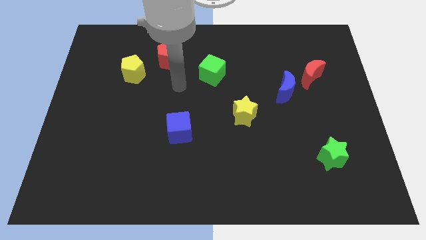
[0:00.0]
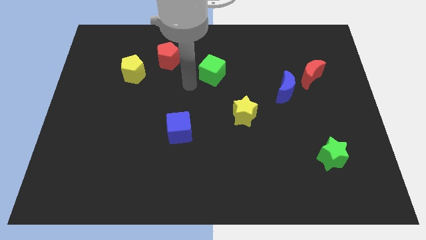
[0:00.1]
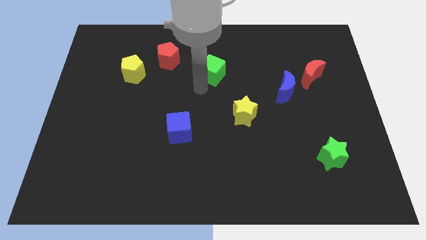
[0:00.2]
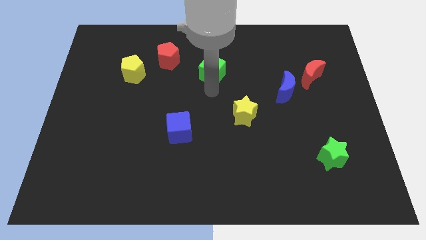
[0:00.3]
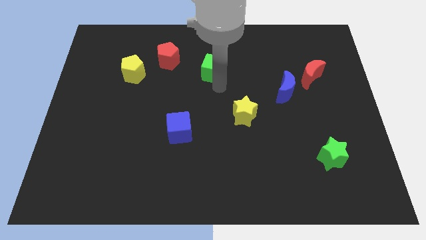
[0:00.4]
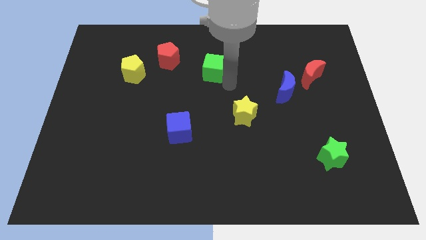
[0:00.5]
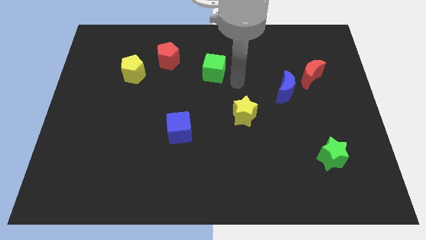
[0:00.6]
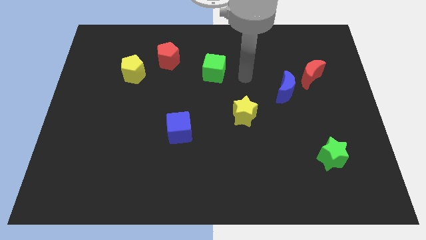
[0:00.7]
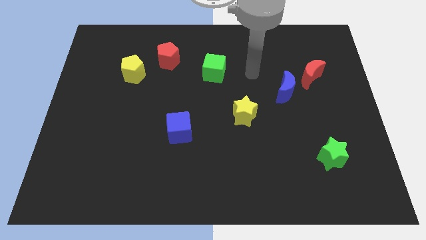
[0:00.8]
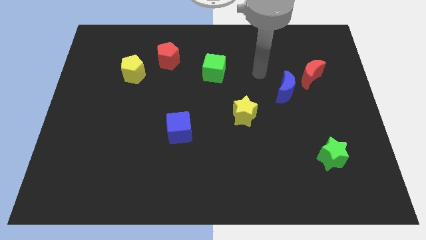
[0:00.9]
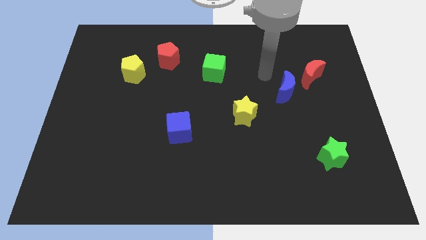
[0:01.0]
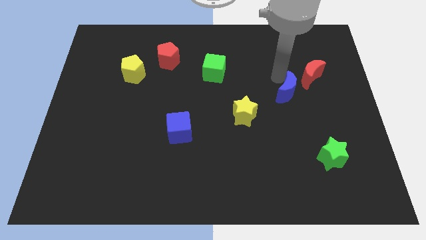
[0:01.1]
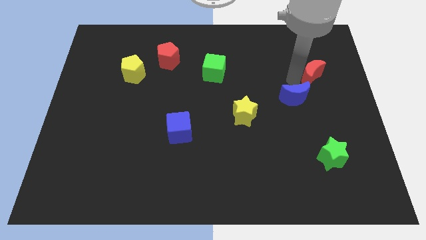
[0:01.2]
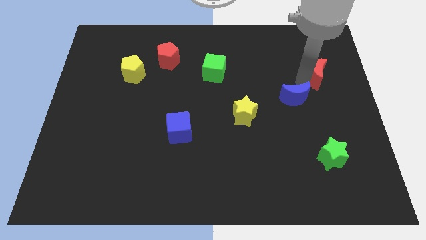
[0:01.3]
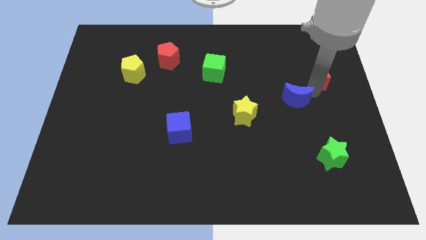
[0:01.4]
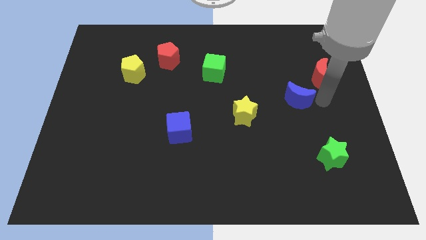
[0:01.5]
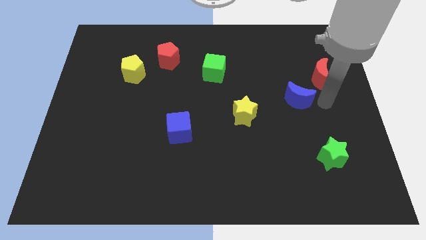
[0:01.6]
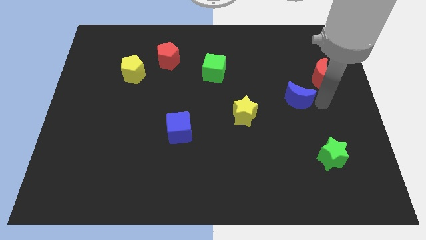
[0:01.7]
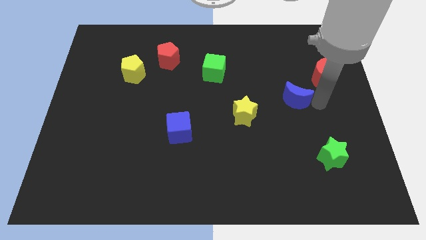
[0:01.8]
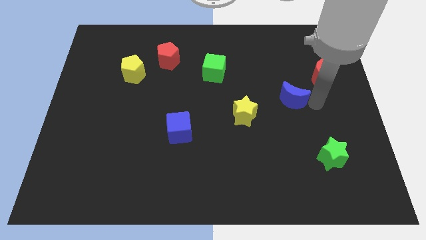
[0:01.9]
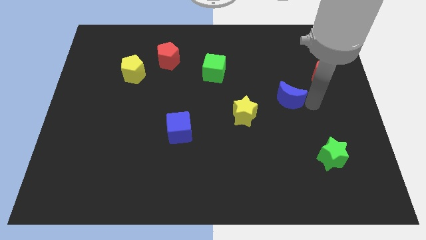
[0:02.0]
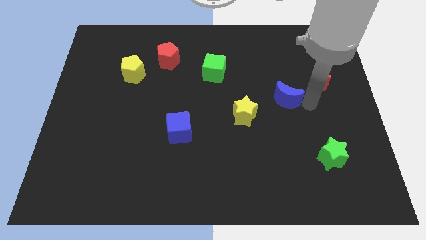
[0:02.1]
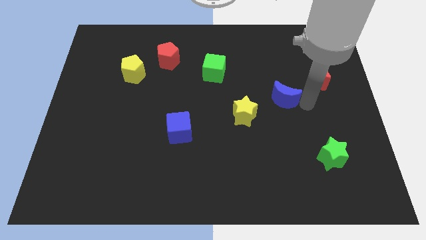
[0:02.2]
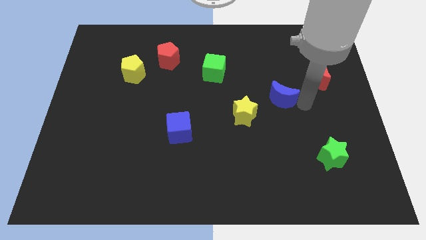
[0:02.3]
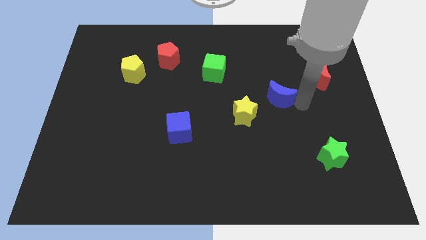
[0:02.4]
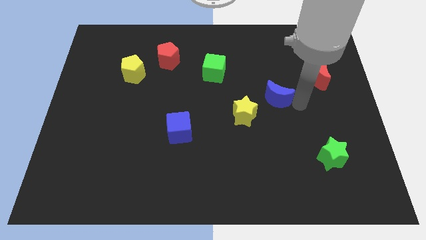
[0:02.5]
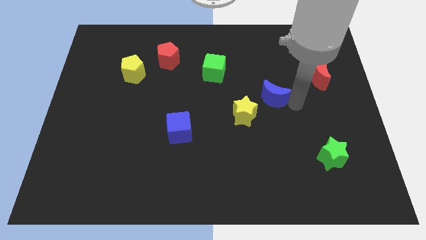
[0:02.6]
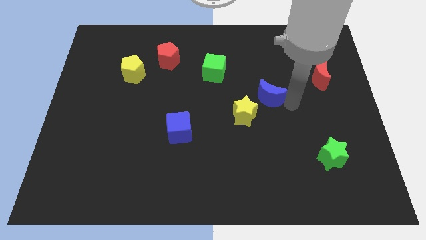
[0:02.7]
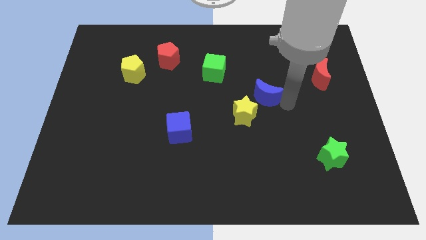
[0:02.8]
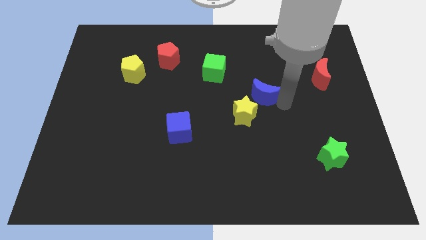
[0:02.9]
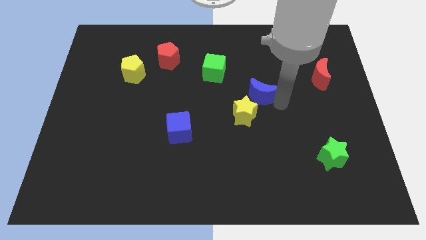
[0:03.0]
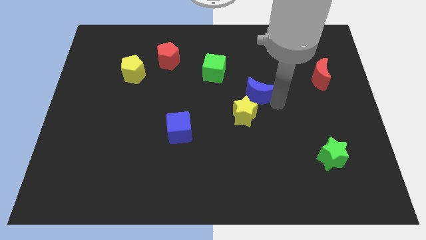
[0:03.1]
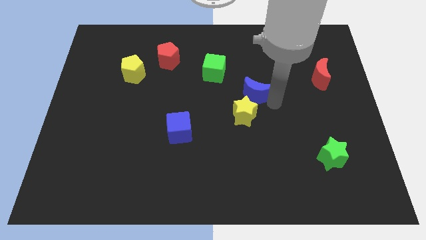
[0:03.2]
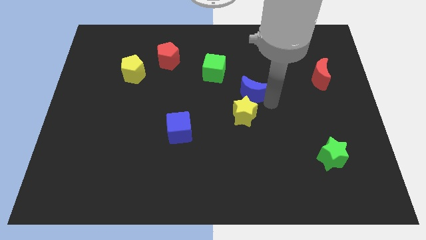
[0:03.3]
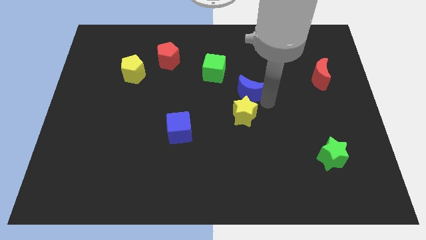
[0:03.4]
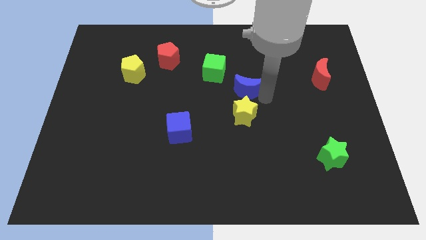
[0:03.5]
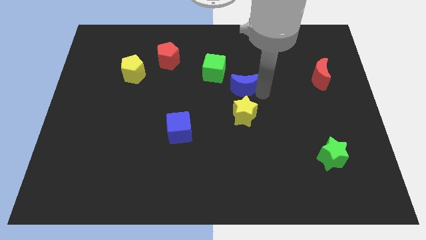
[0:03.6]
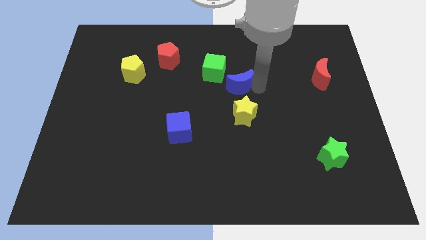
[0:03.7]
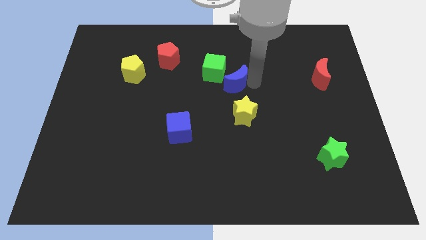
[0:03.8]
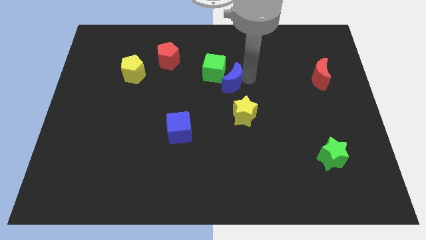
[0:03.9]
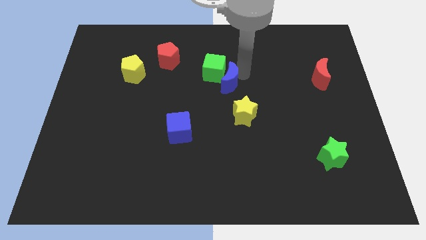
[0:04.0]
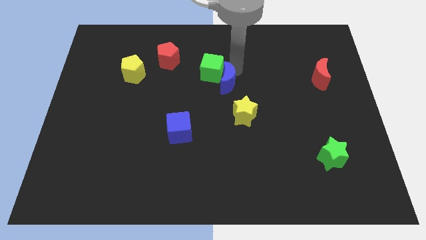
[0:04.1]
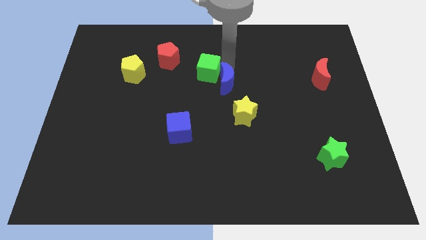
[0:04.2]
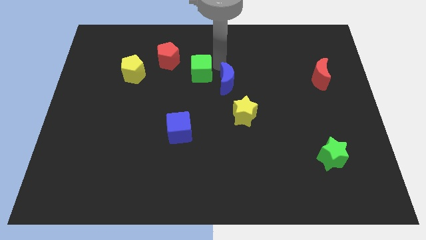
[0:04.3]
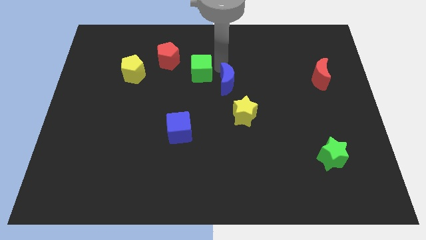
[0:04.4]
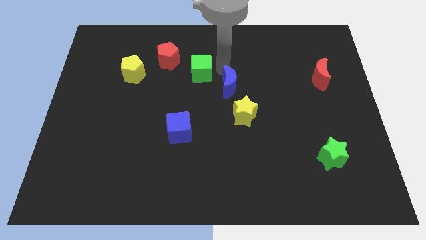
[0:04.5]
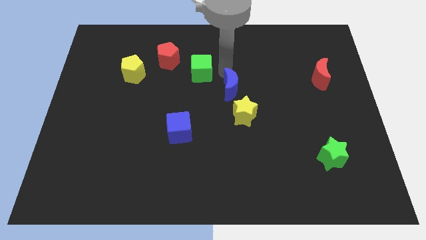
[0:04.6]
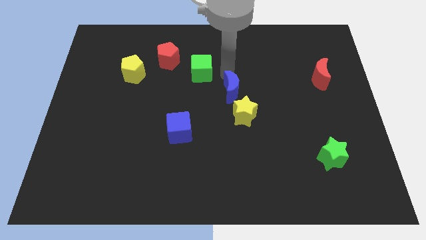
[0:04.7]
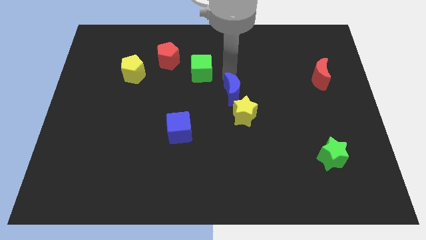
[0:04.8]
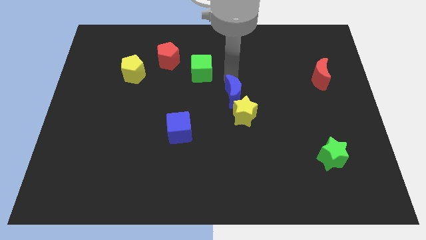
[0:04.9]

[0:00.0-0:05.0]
slide the blue moon close to the yellow star

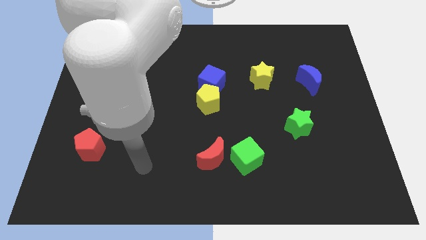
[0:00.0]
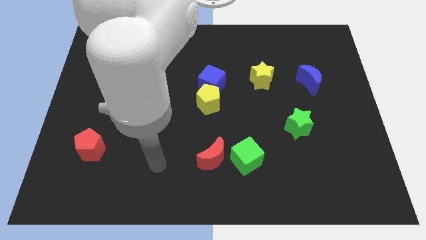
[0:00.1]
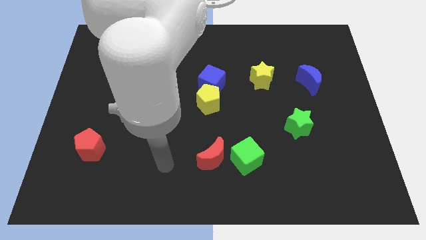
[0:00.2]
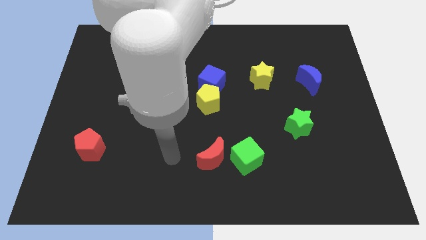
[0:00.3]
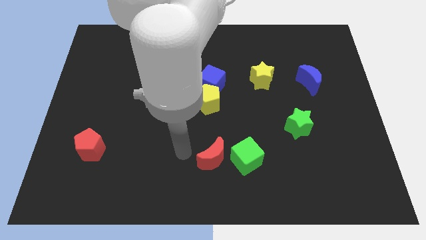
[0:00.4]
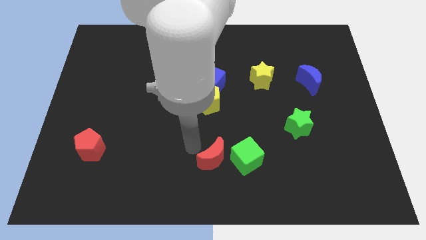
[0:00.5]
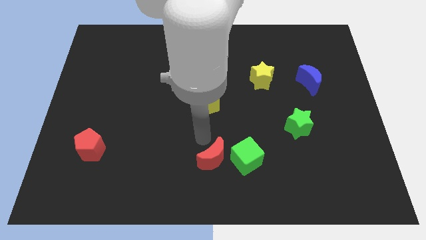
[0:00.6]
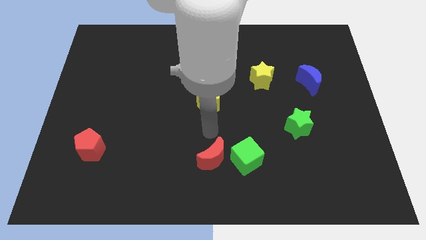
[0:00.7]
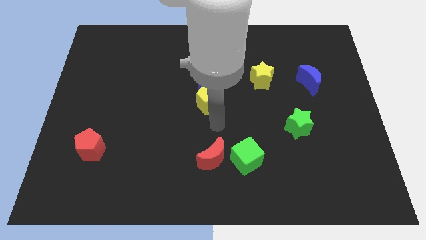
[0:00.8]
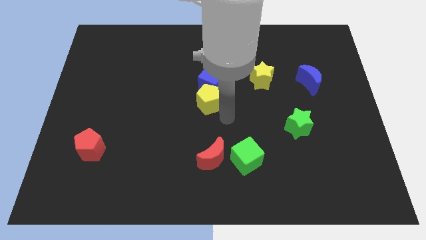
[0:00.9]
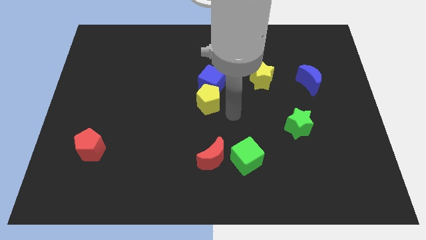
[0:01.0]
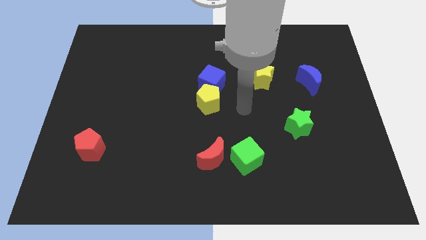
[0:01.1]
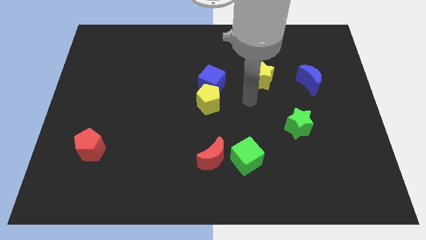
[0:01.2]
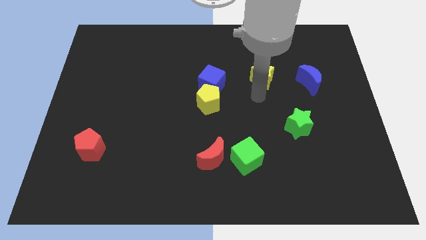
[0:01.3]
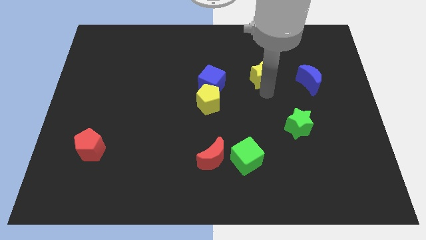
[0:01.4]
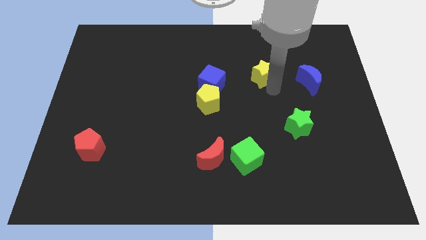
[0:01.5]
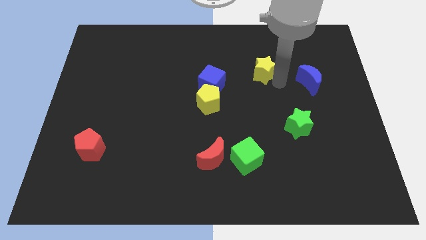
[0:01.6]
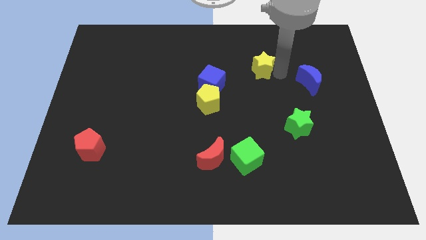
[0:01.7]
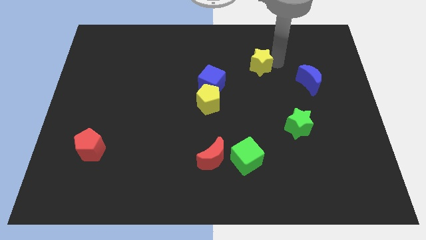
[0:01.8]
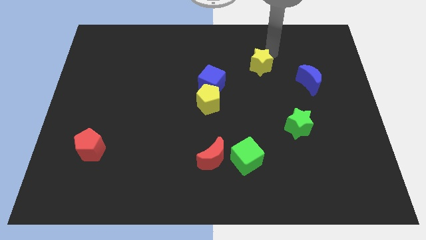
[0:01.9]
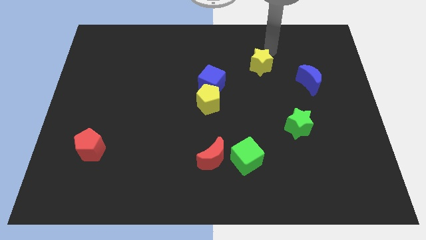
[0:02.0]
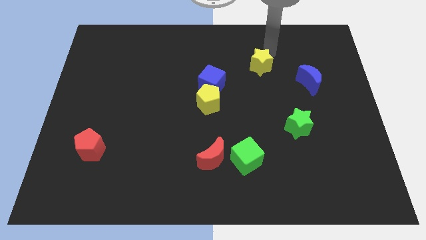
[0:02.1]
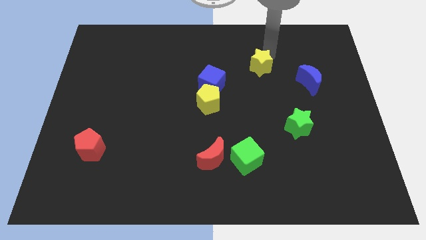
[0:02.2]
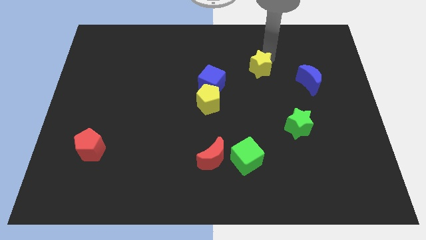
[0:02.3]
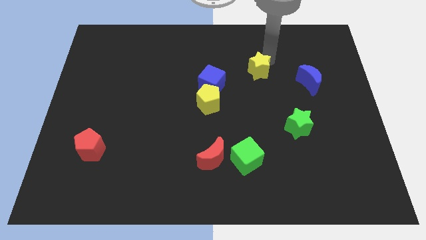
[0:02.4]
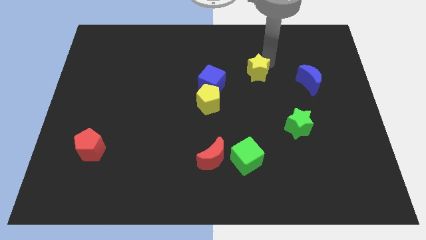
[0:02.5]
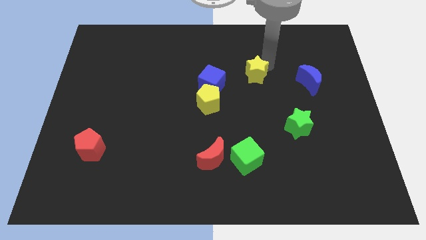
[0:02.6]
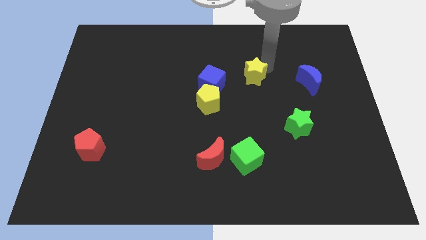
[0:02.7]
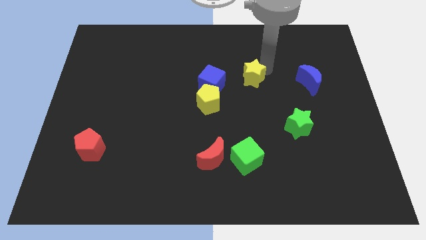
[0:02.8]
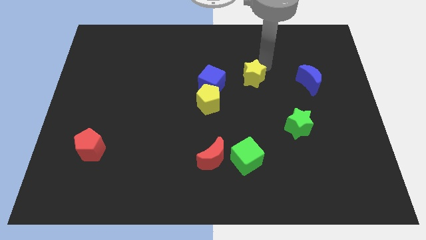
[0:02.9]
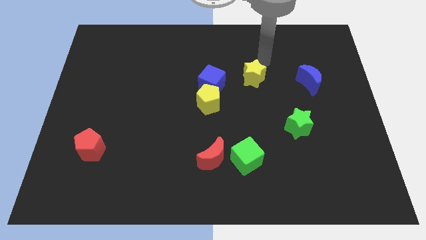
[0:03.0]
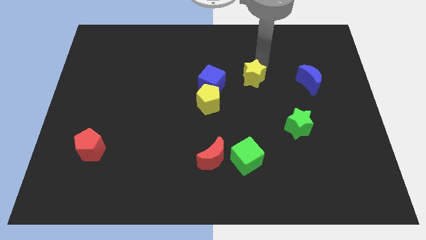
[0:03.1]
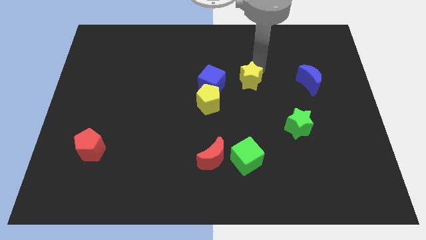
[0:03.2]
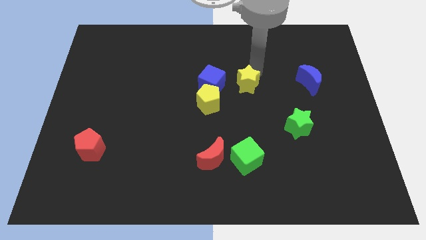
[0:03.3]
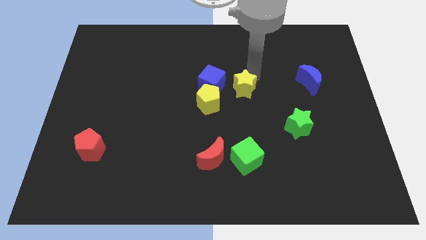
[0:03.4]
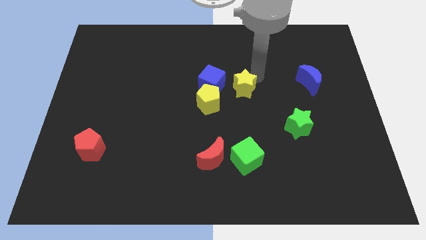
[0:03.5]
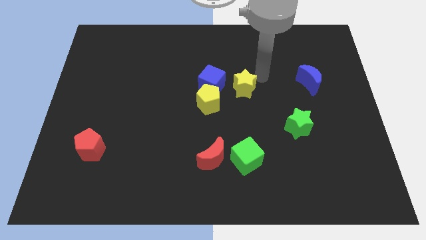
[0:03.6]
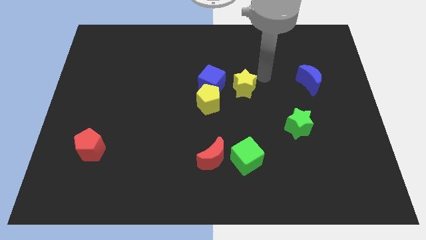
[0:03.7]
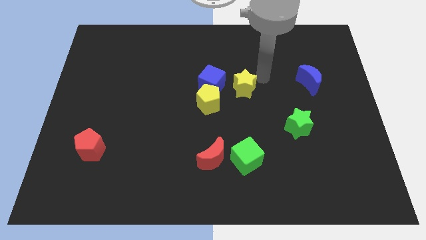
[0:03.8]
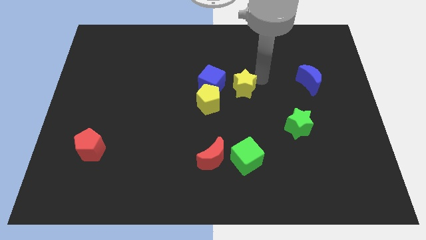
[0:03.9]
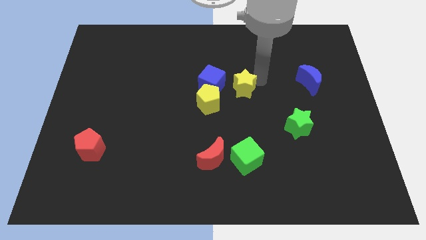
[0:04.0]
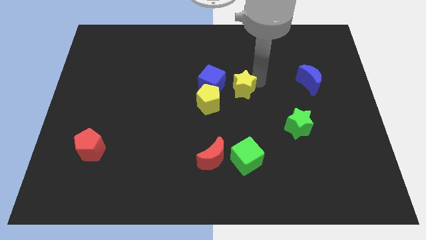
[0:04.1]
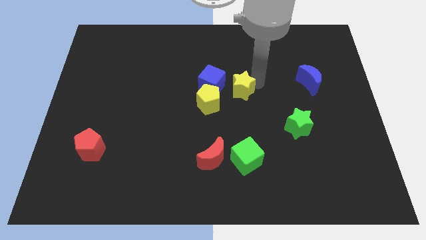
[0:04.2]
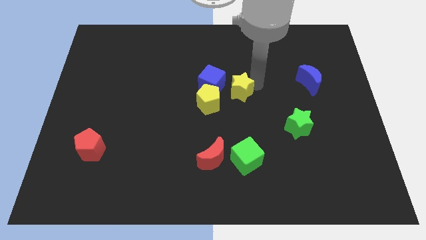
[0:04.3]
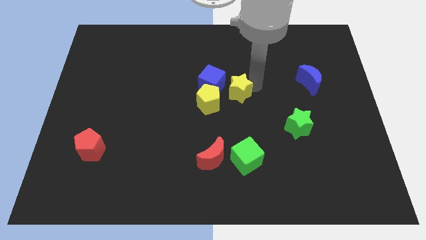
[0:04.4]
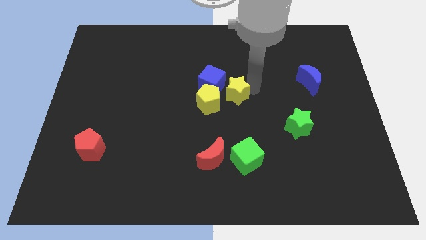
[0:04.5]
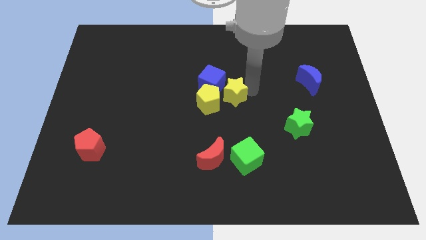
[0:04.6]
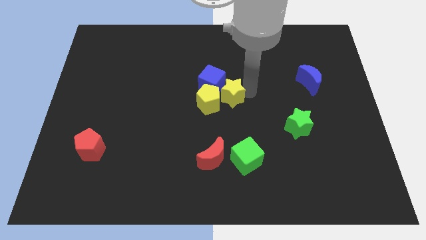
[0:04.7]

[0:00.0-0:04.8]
push the yellow star towards the yellow pentagon
